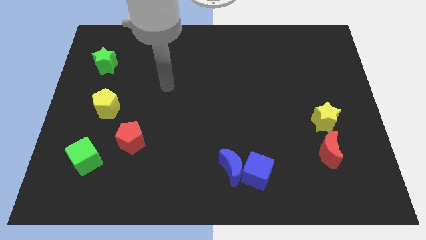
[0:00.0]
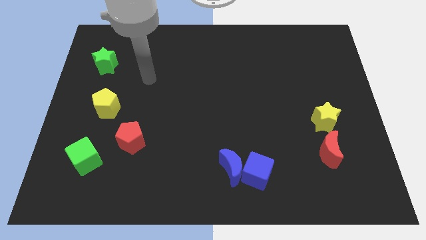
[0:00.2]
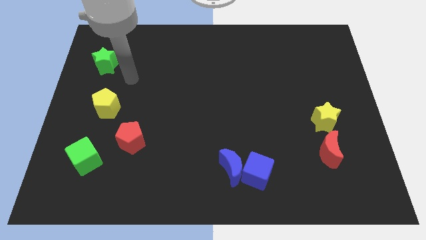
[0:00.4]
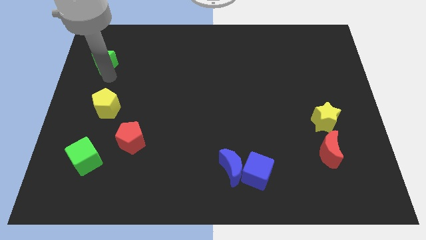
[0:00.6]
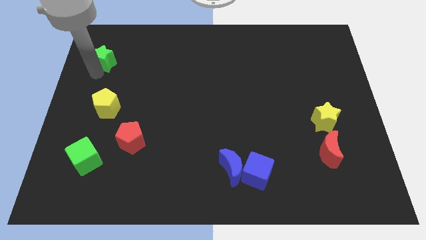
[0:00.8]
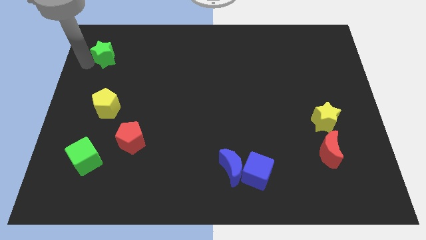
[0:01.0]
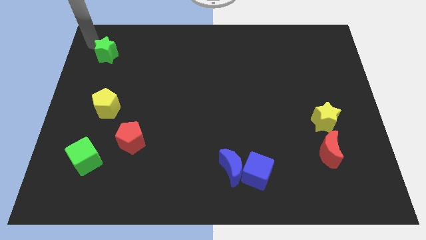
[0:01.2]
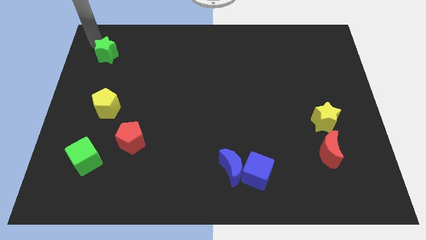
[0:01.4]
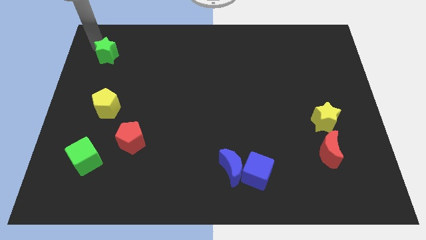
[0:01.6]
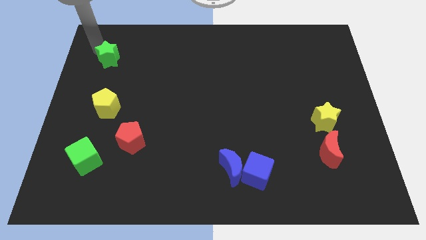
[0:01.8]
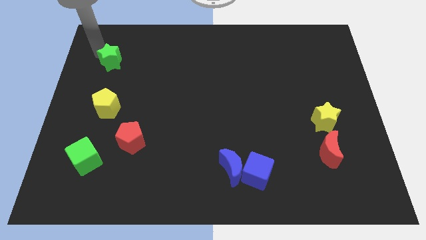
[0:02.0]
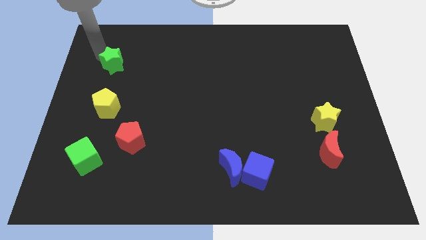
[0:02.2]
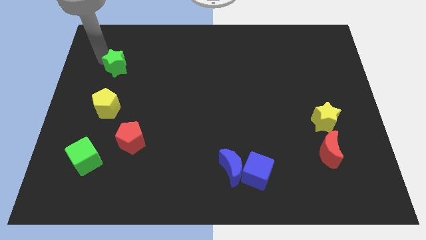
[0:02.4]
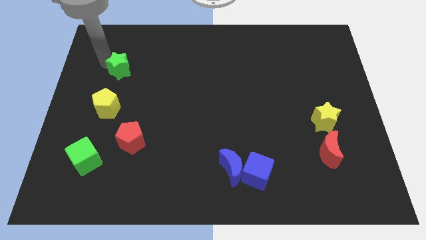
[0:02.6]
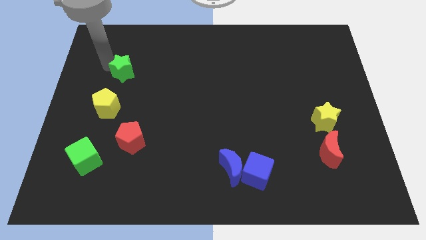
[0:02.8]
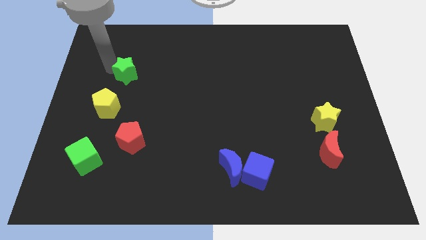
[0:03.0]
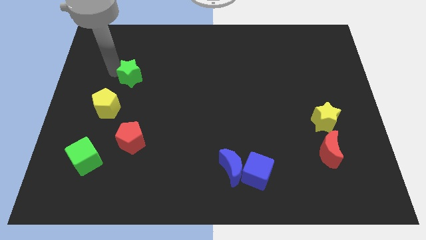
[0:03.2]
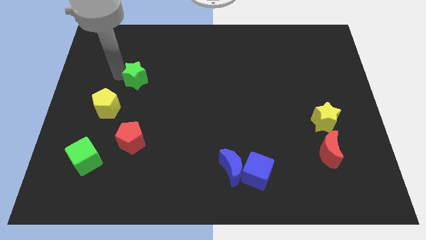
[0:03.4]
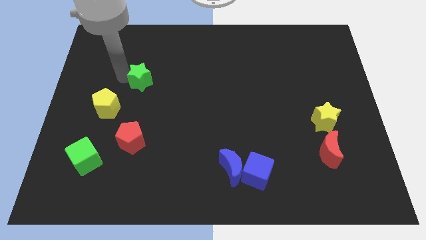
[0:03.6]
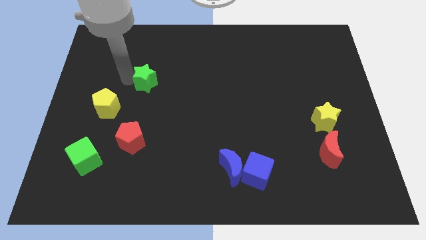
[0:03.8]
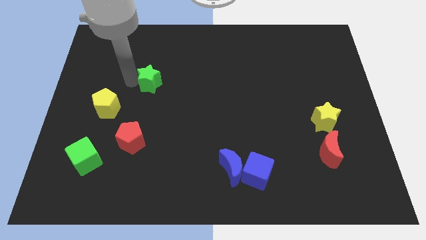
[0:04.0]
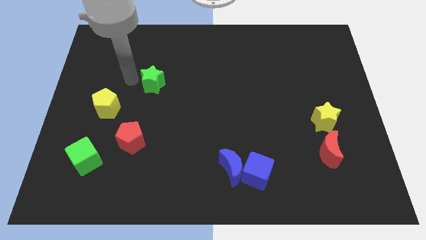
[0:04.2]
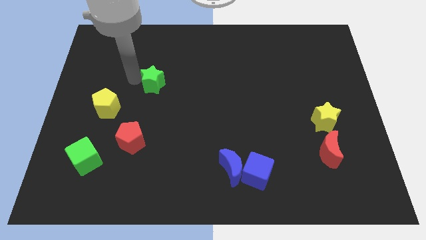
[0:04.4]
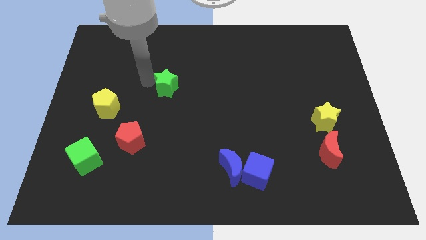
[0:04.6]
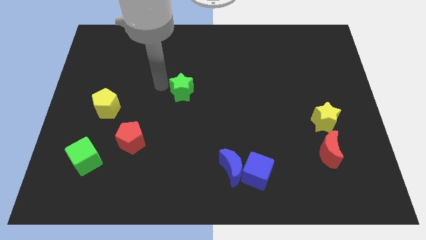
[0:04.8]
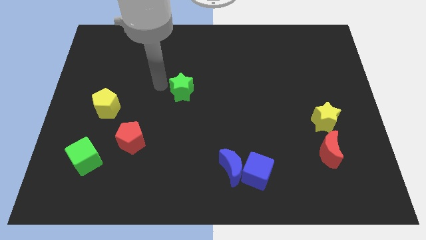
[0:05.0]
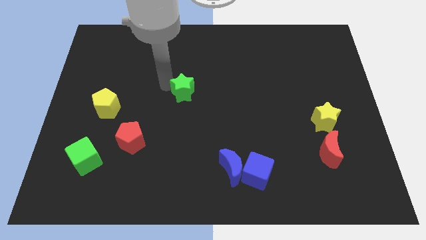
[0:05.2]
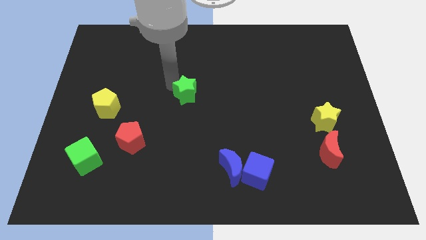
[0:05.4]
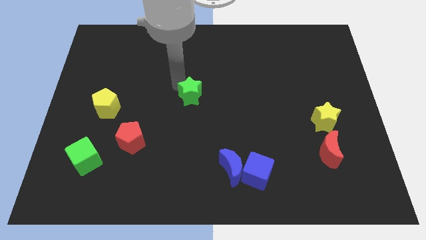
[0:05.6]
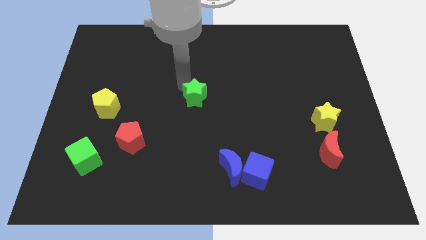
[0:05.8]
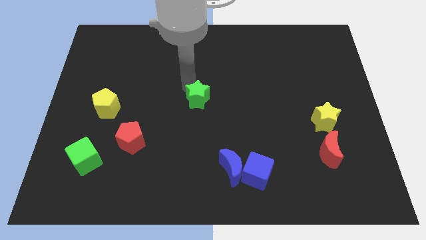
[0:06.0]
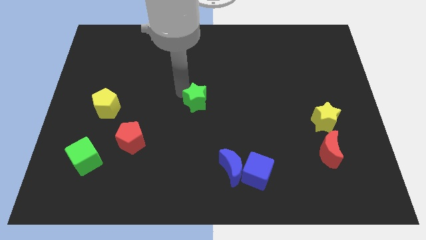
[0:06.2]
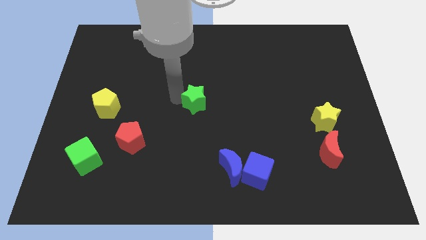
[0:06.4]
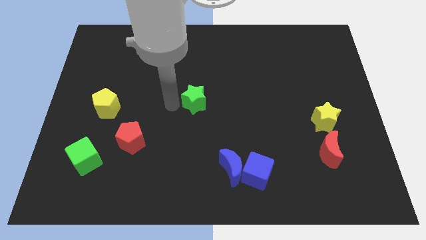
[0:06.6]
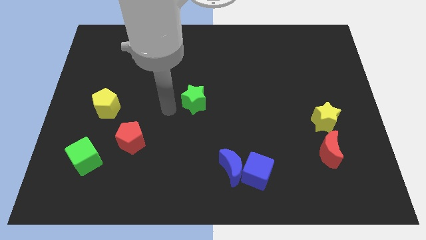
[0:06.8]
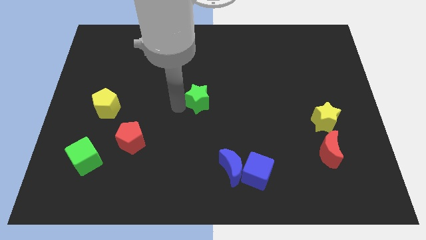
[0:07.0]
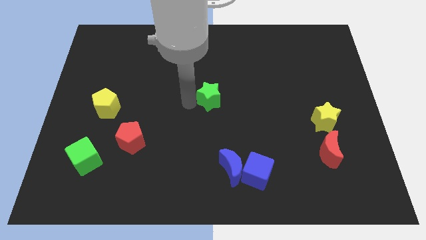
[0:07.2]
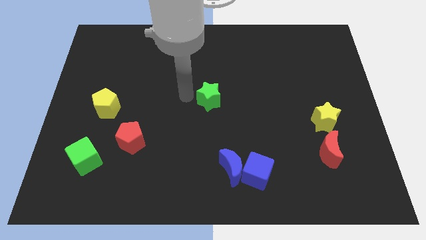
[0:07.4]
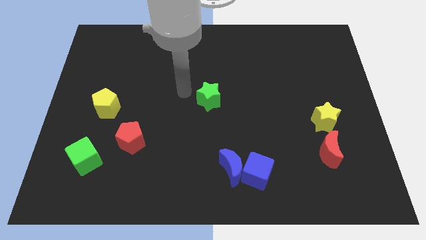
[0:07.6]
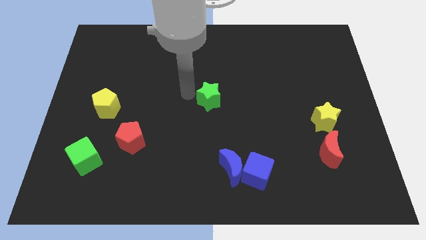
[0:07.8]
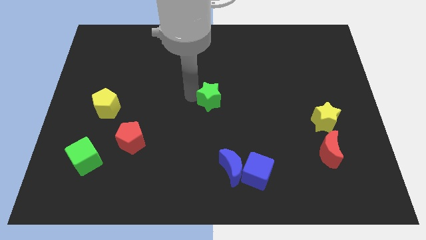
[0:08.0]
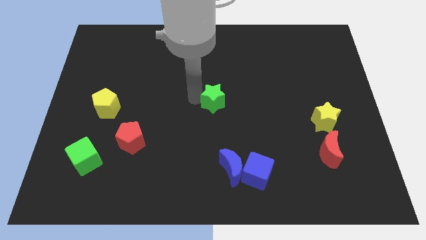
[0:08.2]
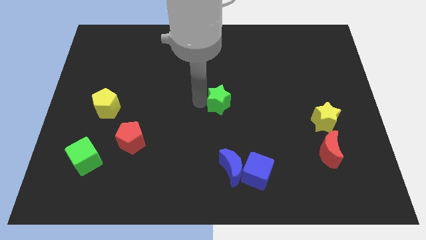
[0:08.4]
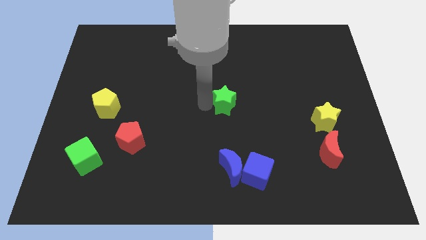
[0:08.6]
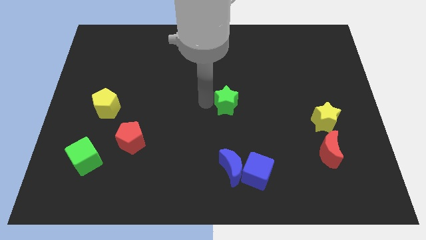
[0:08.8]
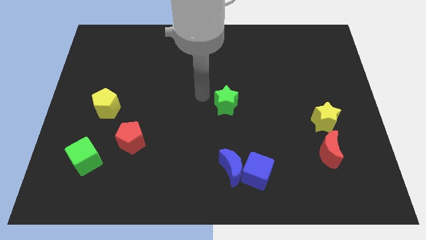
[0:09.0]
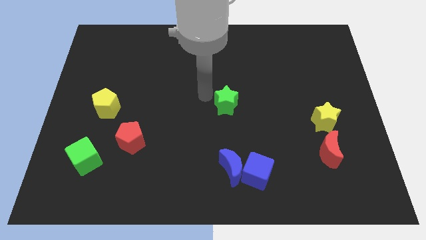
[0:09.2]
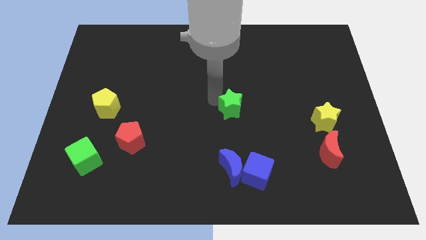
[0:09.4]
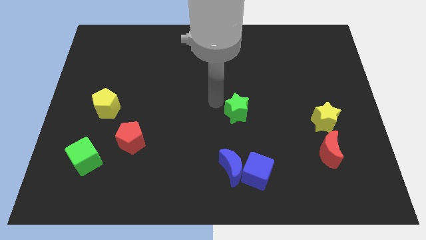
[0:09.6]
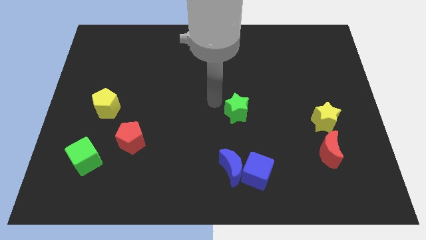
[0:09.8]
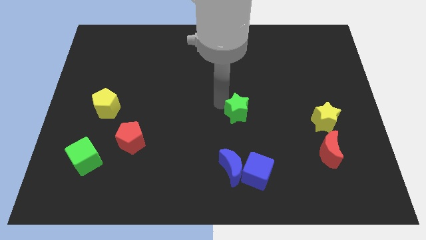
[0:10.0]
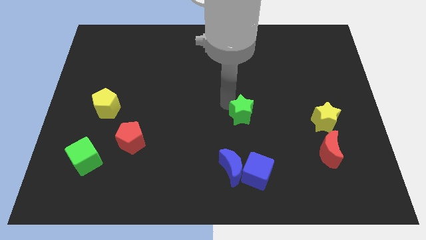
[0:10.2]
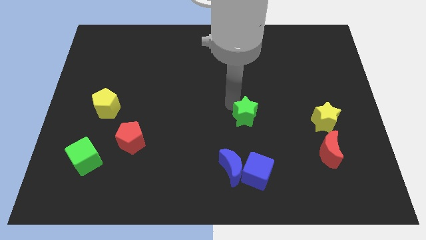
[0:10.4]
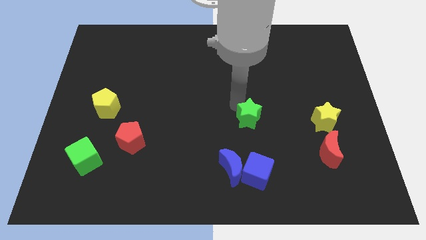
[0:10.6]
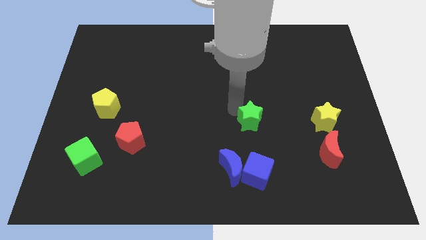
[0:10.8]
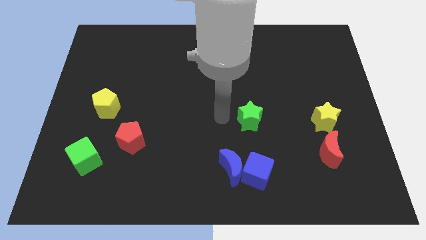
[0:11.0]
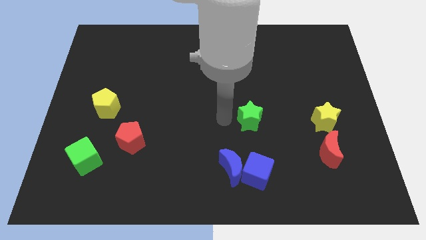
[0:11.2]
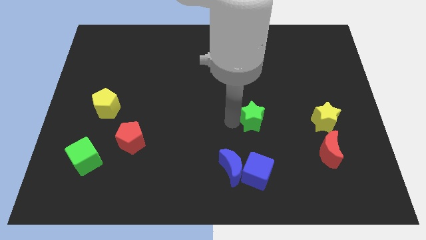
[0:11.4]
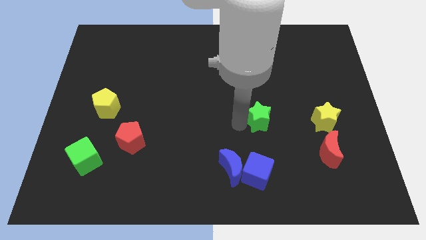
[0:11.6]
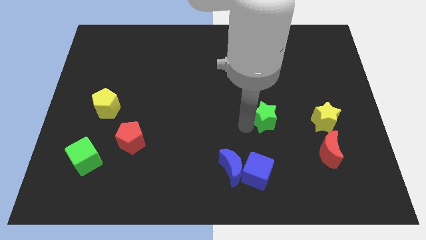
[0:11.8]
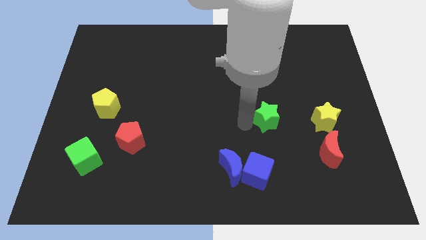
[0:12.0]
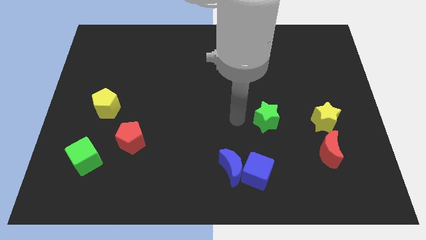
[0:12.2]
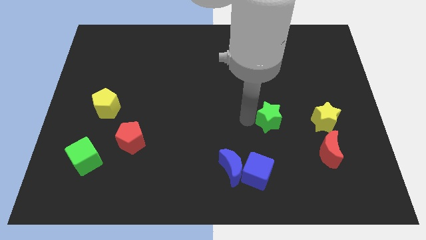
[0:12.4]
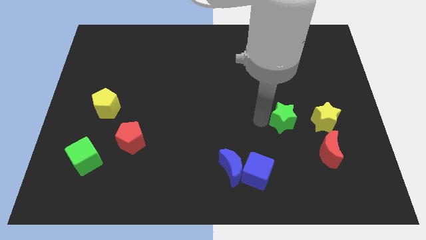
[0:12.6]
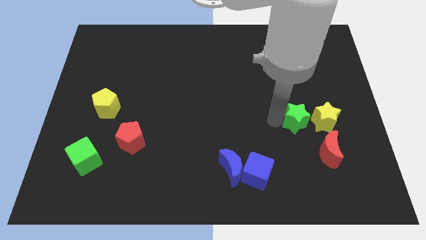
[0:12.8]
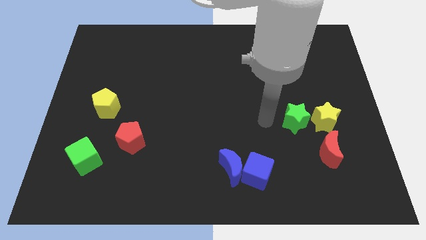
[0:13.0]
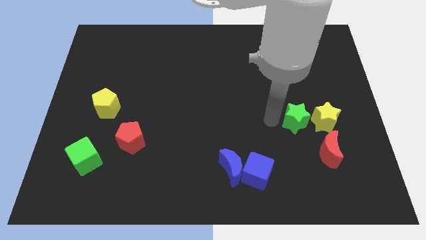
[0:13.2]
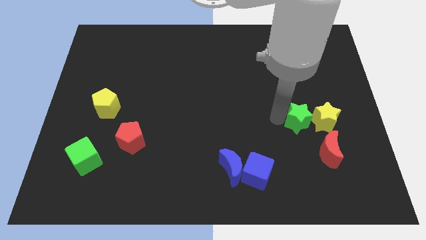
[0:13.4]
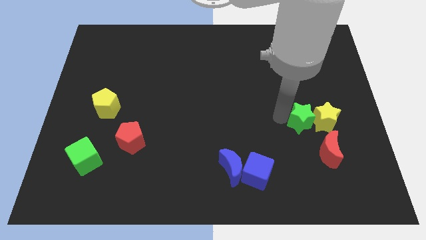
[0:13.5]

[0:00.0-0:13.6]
push the green star to the yellow star
